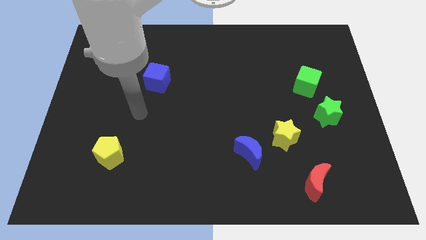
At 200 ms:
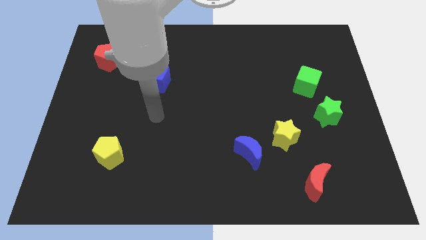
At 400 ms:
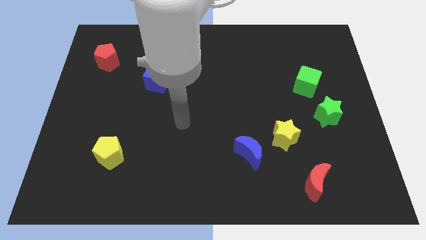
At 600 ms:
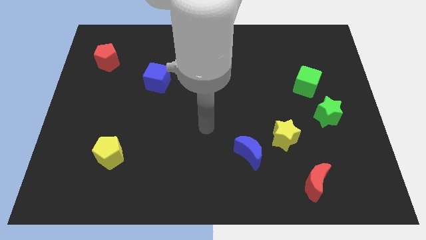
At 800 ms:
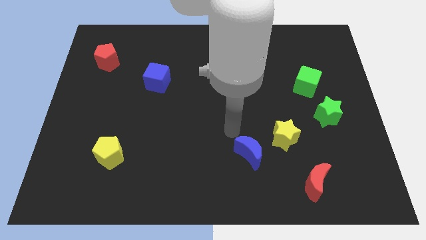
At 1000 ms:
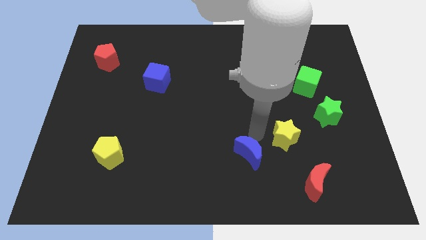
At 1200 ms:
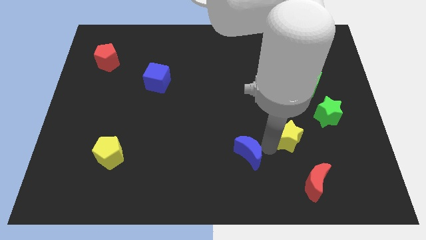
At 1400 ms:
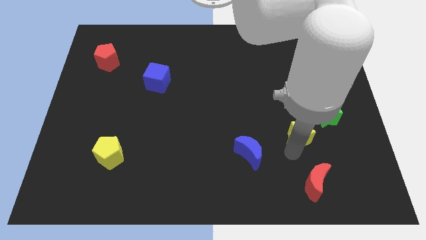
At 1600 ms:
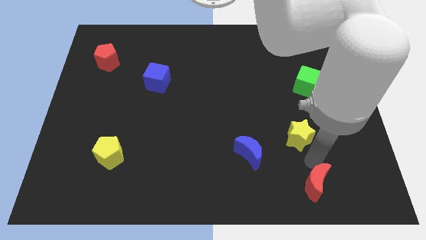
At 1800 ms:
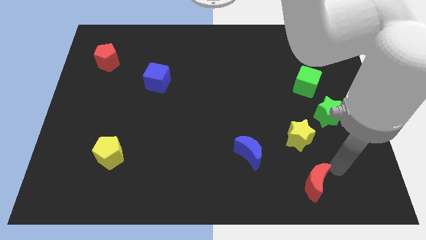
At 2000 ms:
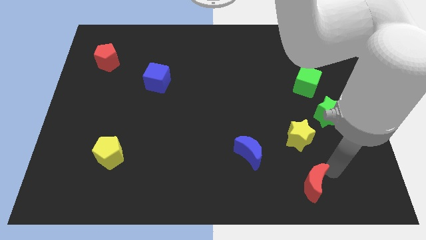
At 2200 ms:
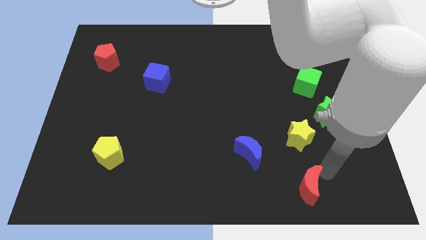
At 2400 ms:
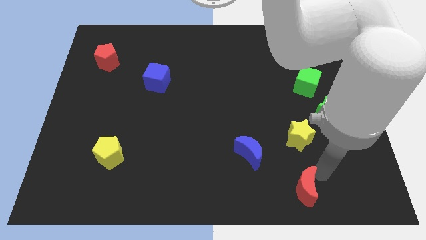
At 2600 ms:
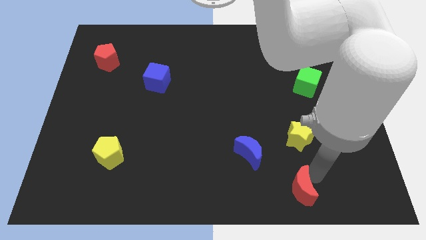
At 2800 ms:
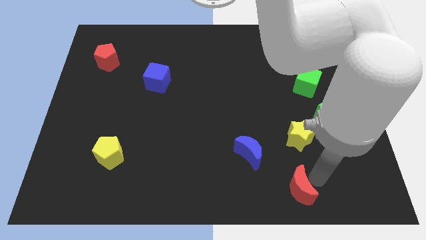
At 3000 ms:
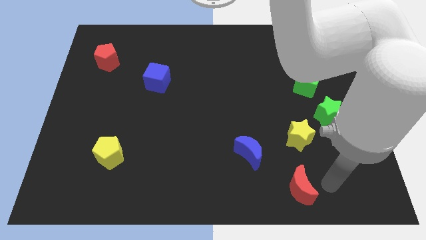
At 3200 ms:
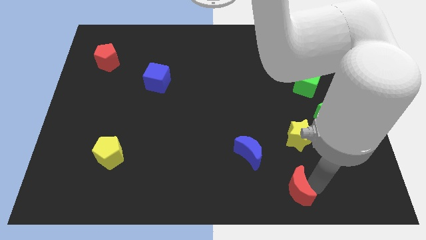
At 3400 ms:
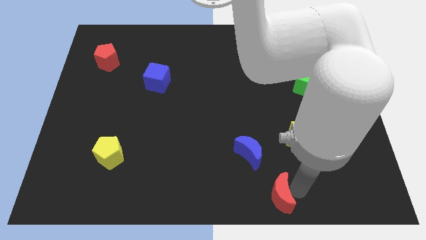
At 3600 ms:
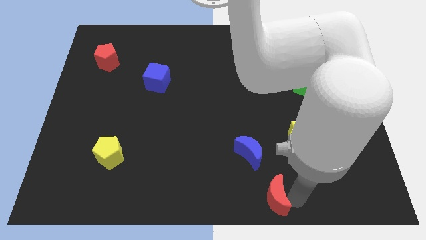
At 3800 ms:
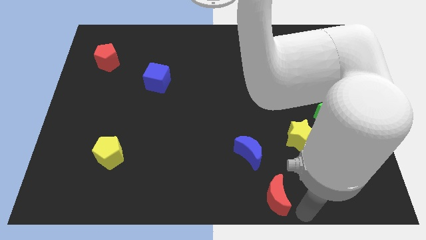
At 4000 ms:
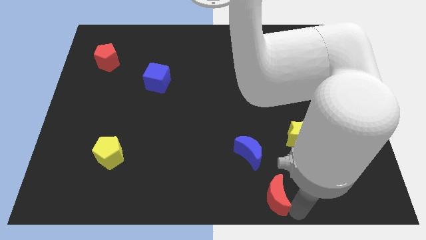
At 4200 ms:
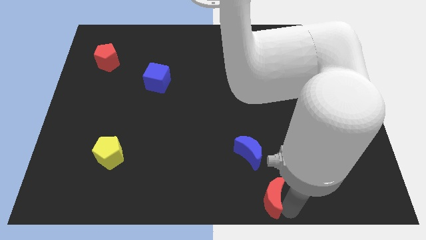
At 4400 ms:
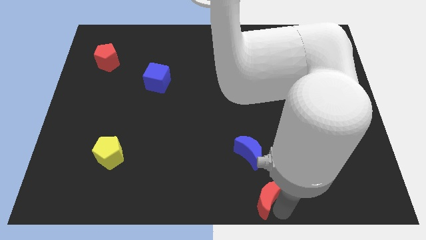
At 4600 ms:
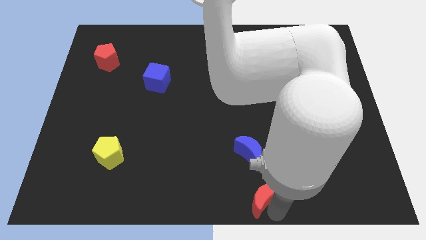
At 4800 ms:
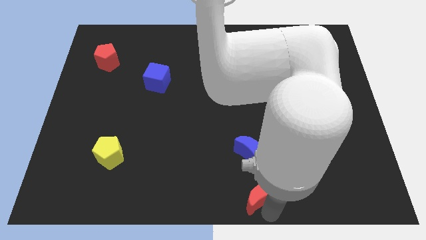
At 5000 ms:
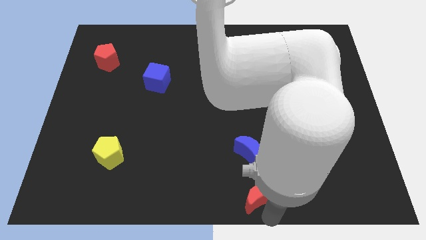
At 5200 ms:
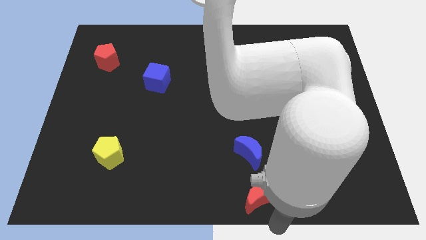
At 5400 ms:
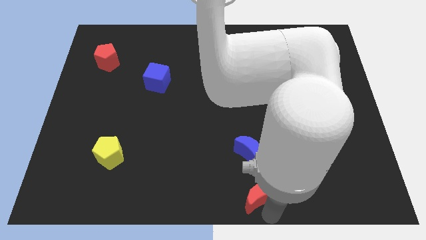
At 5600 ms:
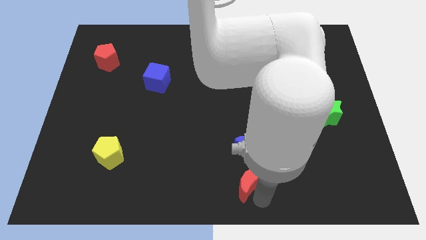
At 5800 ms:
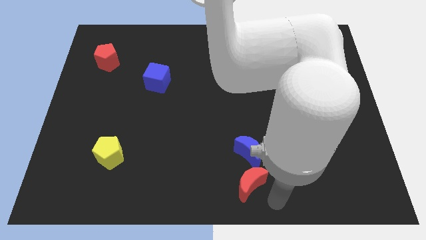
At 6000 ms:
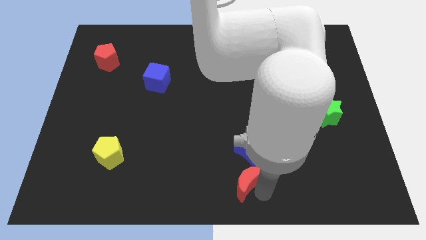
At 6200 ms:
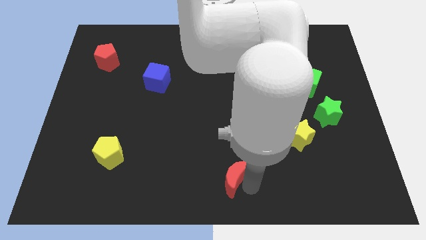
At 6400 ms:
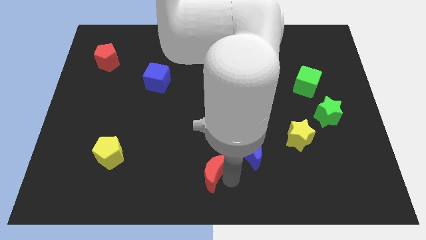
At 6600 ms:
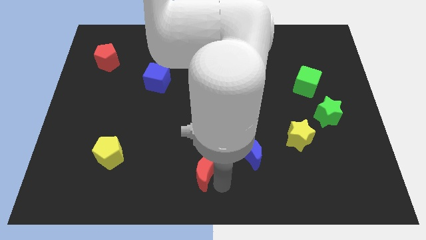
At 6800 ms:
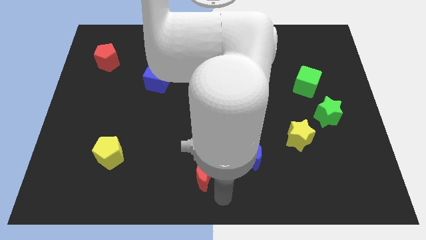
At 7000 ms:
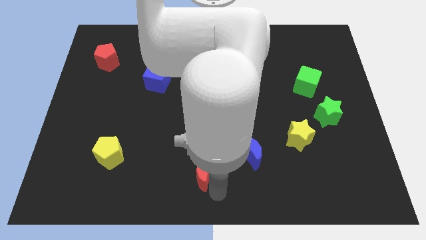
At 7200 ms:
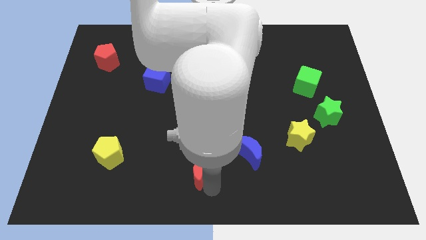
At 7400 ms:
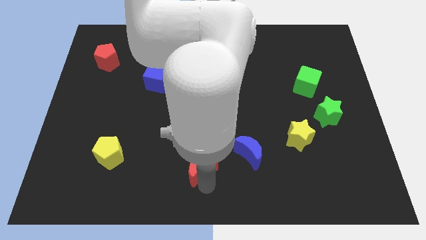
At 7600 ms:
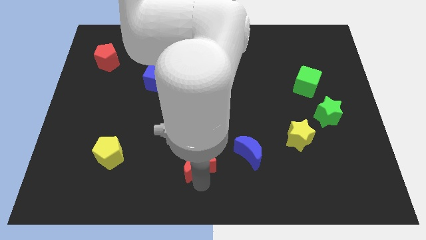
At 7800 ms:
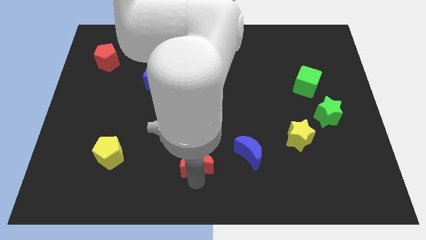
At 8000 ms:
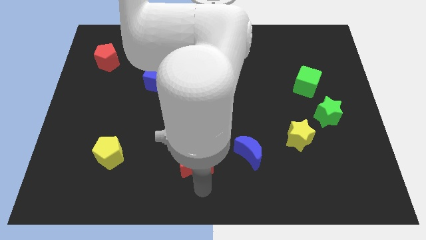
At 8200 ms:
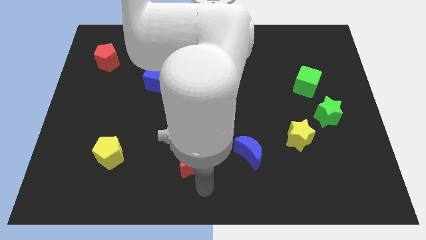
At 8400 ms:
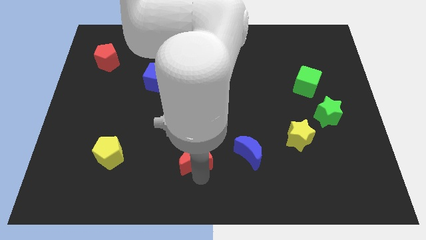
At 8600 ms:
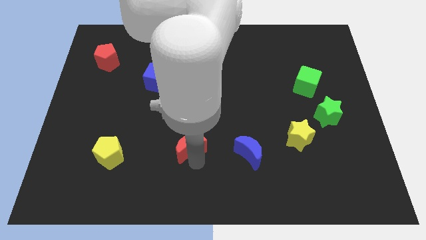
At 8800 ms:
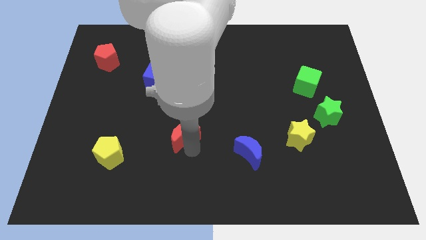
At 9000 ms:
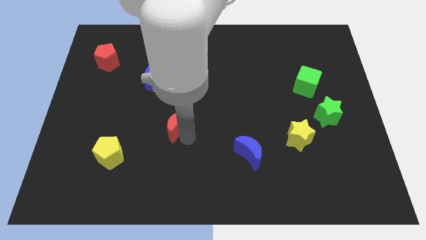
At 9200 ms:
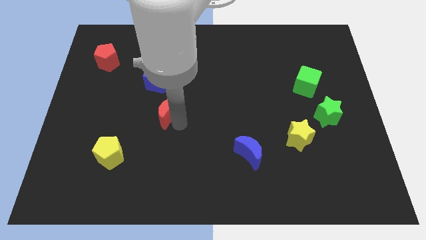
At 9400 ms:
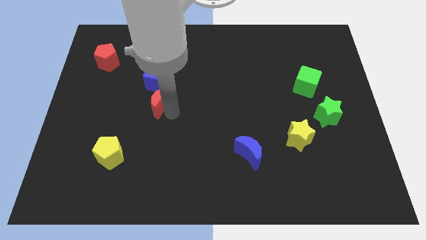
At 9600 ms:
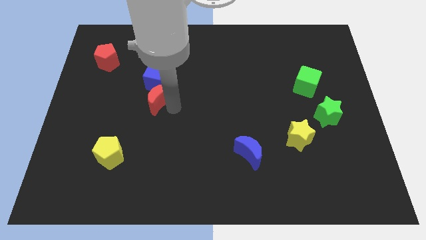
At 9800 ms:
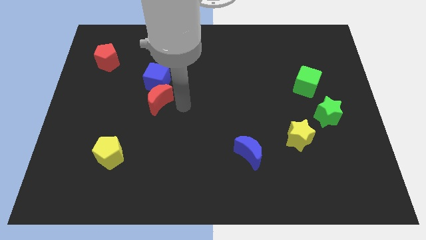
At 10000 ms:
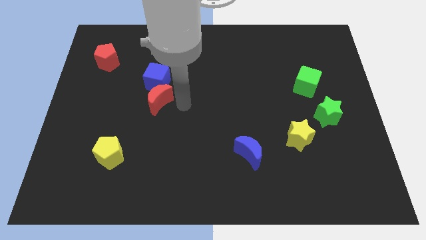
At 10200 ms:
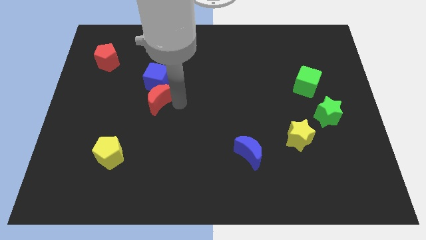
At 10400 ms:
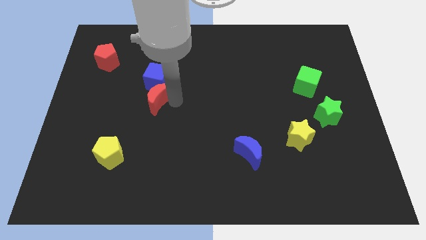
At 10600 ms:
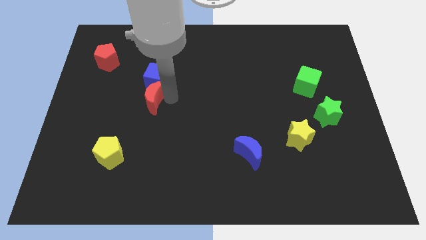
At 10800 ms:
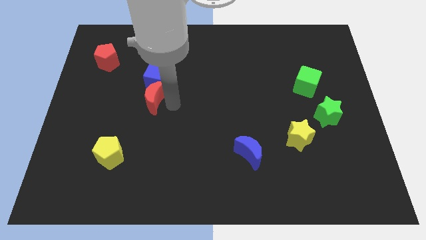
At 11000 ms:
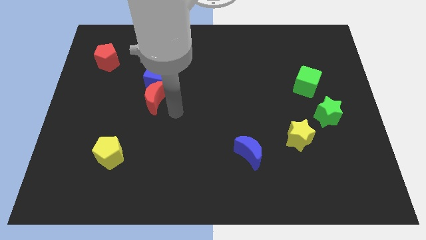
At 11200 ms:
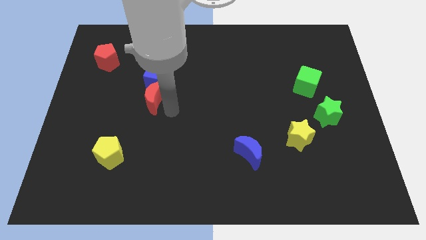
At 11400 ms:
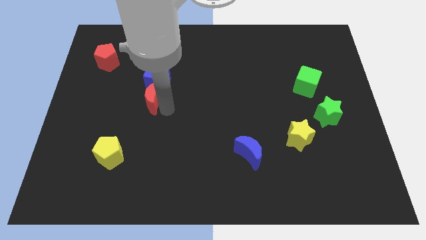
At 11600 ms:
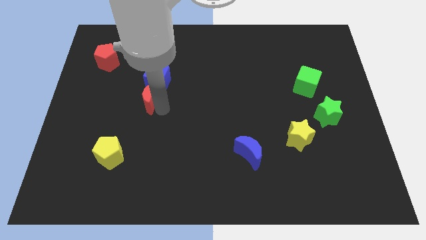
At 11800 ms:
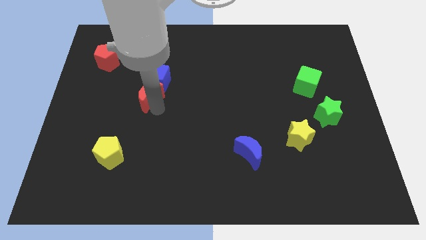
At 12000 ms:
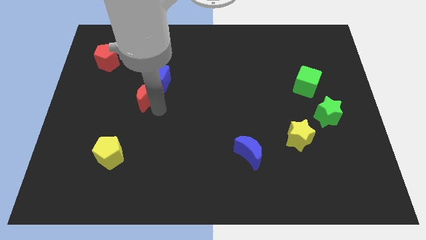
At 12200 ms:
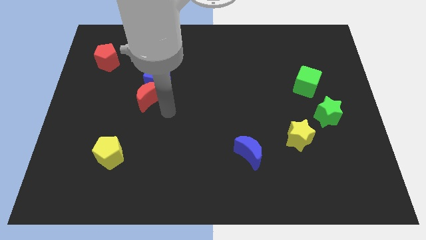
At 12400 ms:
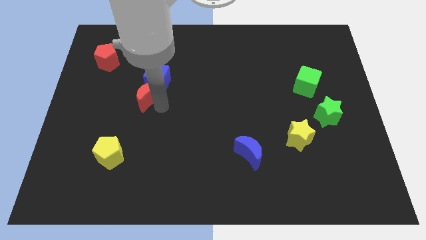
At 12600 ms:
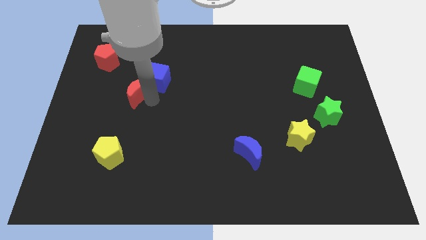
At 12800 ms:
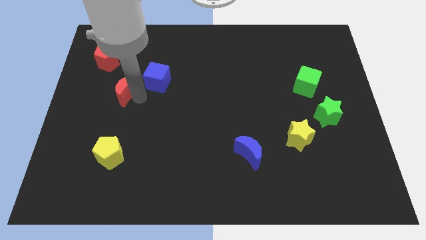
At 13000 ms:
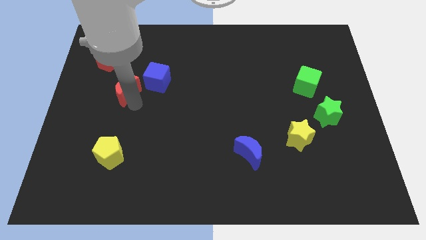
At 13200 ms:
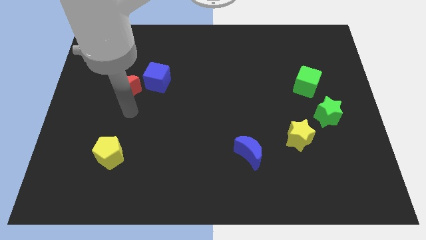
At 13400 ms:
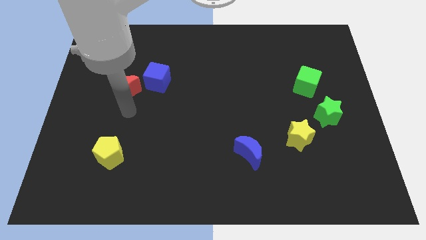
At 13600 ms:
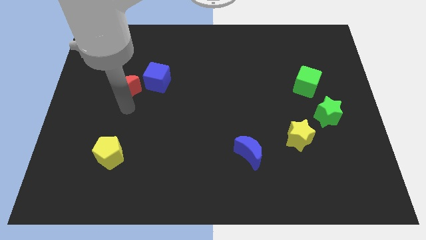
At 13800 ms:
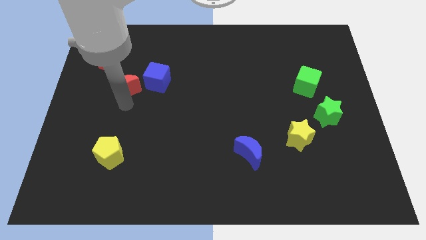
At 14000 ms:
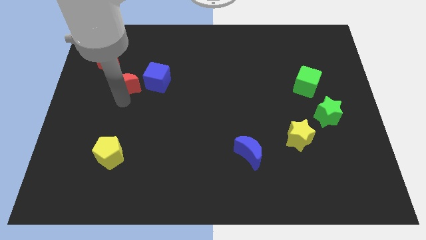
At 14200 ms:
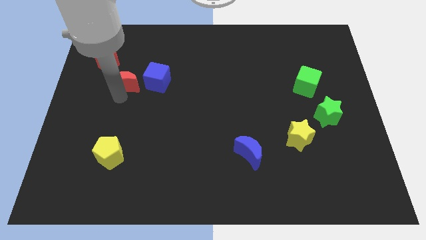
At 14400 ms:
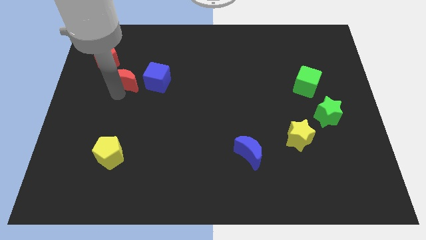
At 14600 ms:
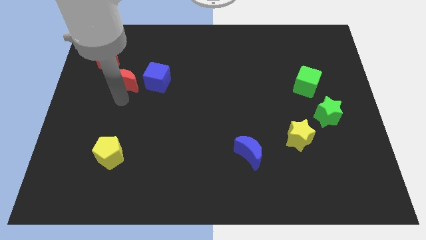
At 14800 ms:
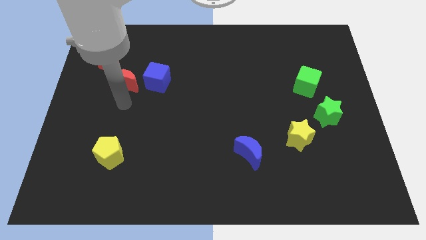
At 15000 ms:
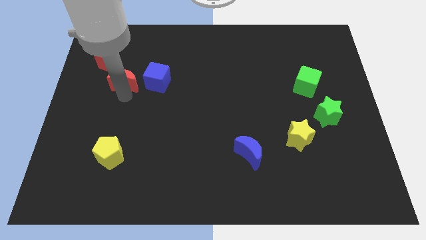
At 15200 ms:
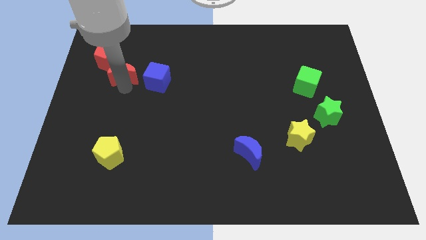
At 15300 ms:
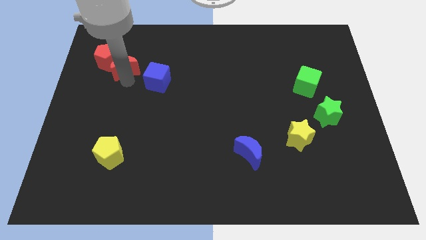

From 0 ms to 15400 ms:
put the red moon towards the red pentagon
